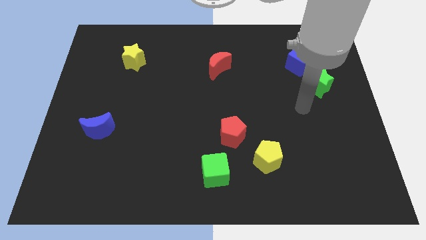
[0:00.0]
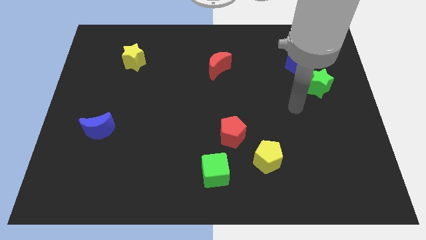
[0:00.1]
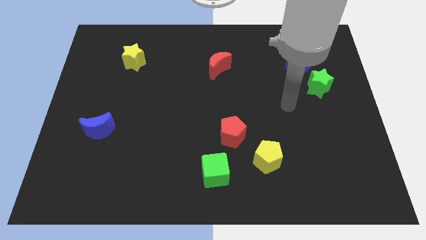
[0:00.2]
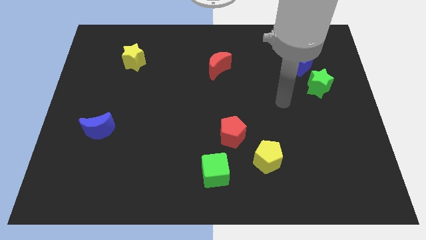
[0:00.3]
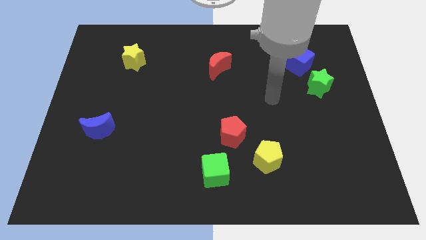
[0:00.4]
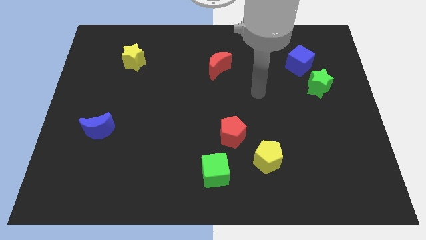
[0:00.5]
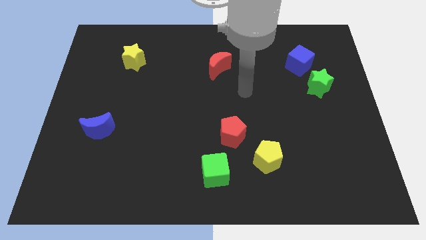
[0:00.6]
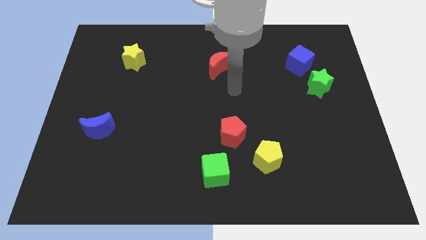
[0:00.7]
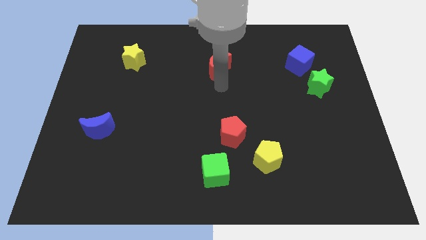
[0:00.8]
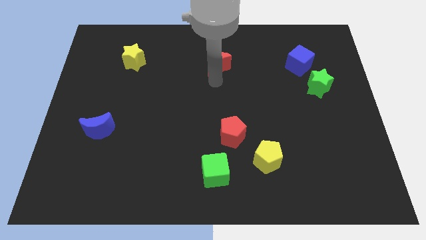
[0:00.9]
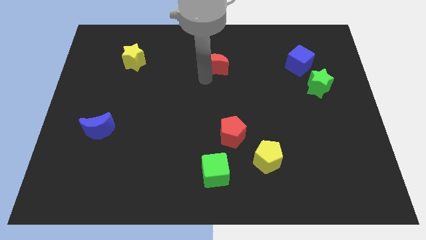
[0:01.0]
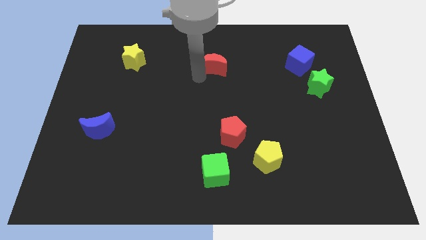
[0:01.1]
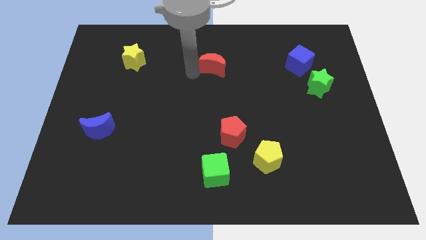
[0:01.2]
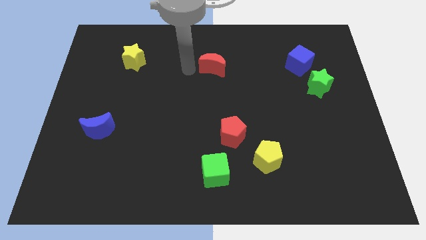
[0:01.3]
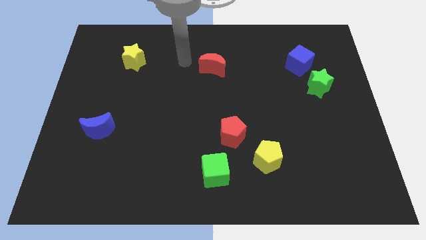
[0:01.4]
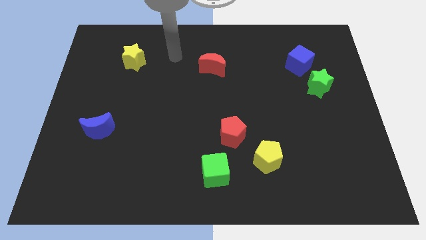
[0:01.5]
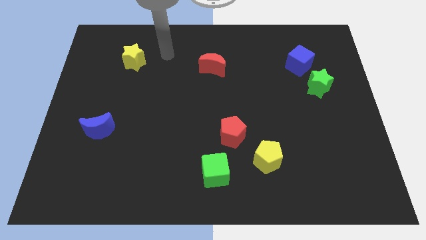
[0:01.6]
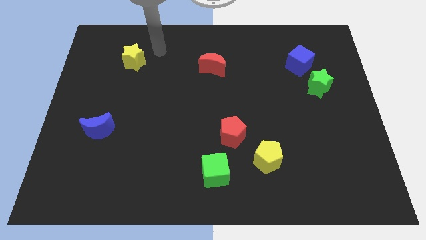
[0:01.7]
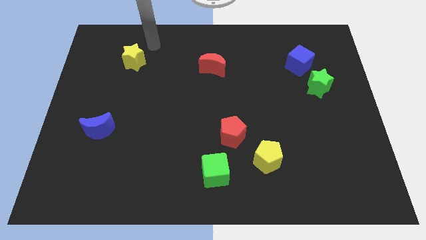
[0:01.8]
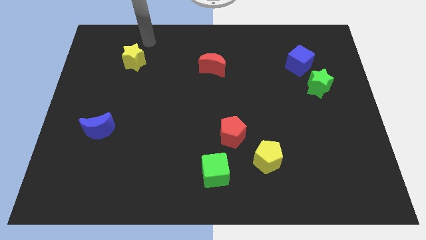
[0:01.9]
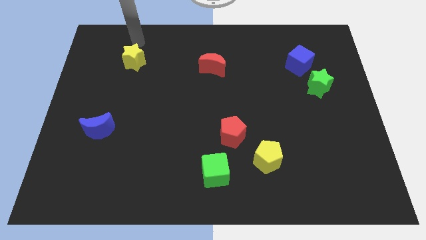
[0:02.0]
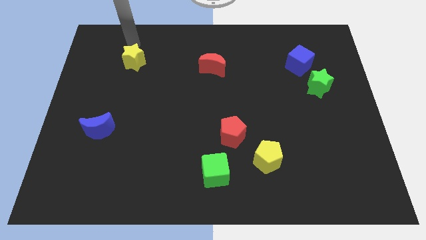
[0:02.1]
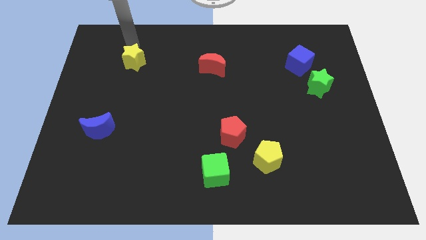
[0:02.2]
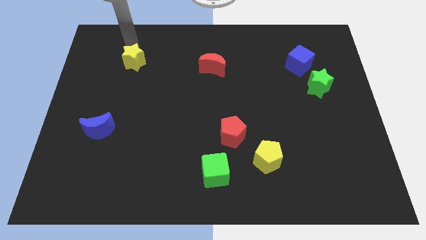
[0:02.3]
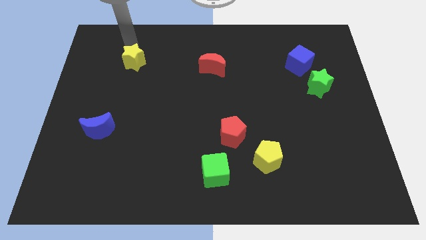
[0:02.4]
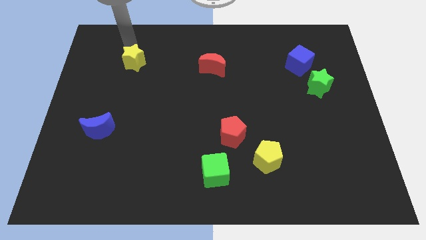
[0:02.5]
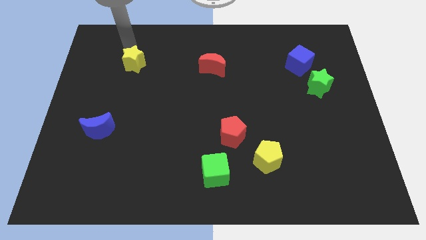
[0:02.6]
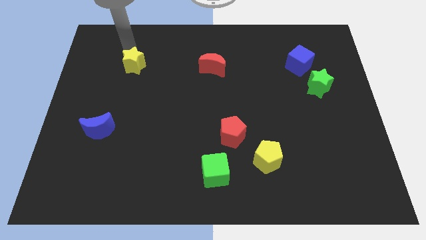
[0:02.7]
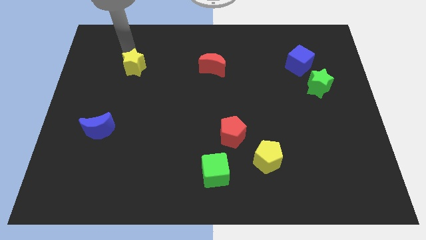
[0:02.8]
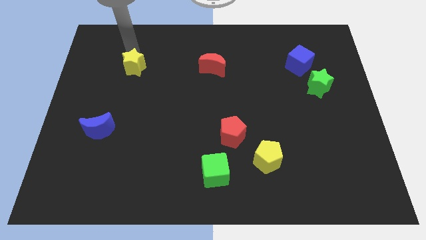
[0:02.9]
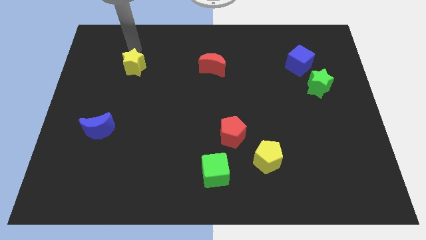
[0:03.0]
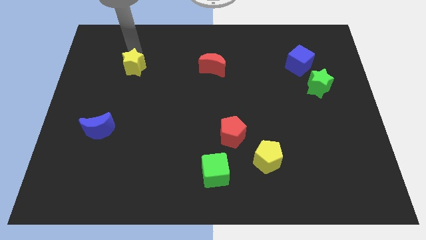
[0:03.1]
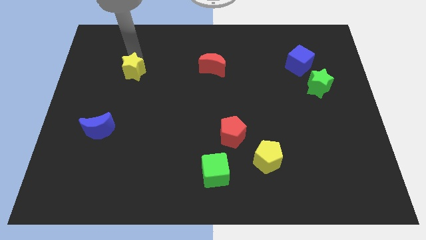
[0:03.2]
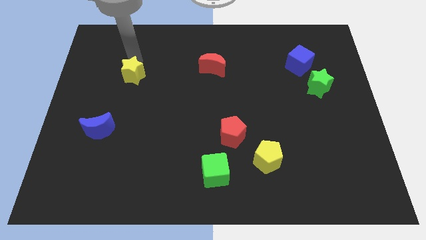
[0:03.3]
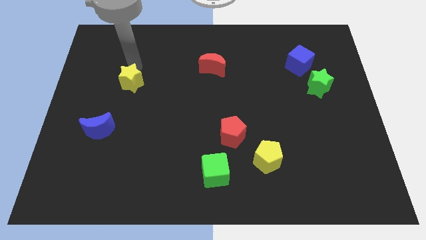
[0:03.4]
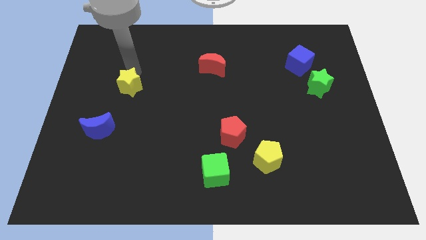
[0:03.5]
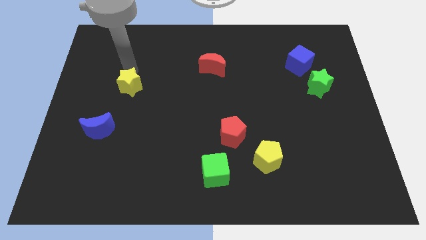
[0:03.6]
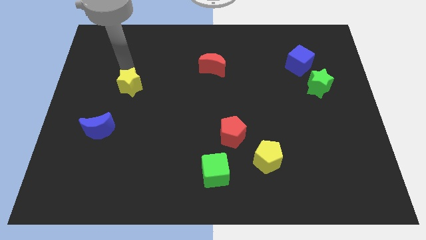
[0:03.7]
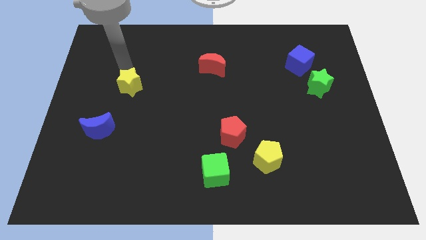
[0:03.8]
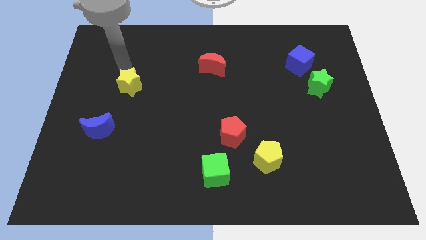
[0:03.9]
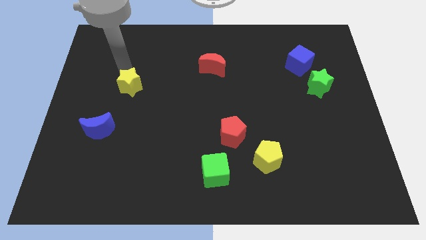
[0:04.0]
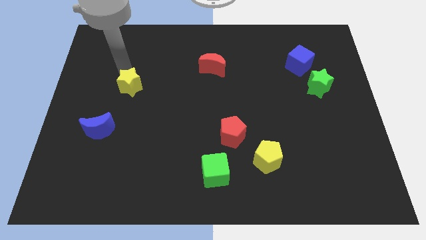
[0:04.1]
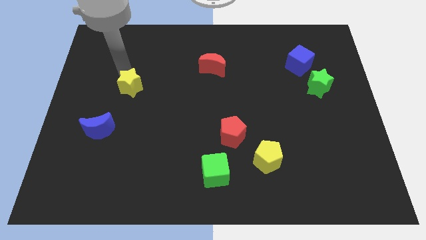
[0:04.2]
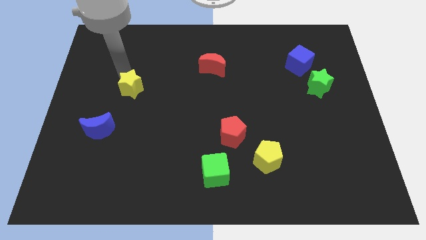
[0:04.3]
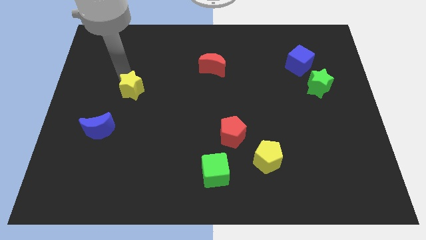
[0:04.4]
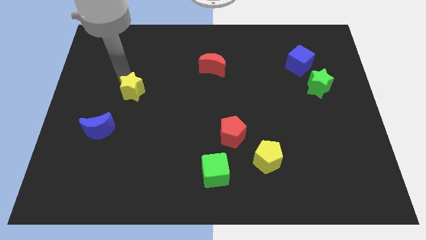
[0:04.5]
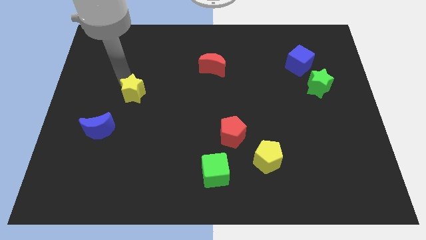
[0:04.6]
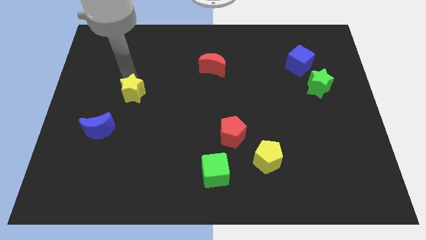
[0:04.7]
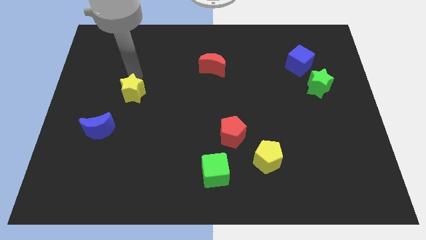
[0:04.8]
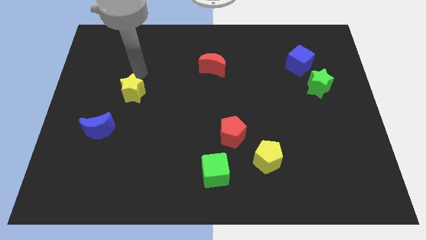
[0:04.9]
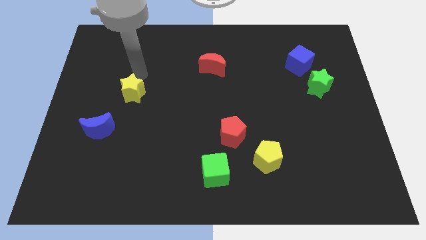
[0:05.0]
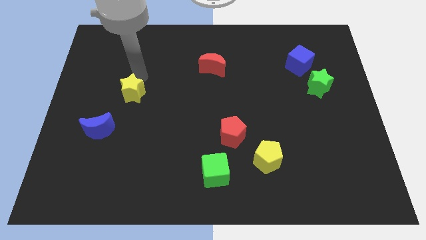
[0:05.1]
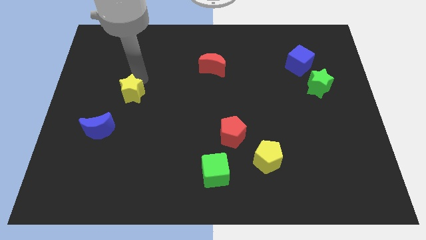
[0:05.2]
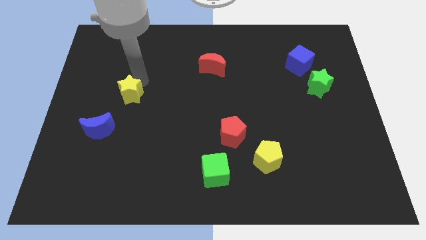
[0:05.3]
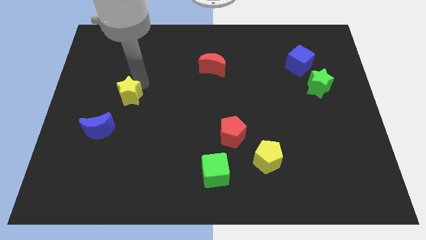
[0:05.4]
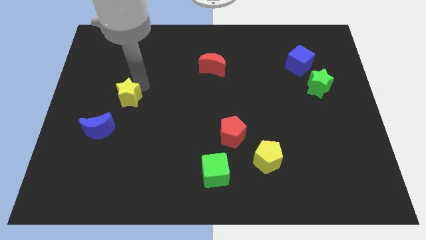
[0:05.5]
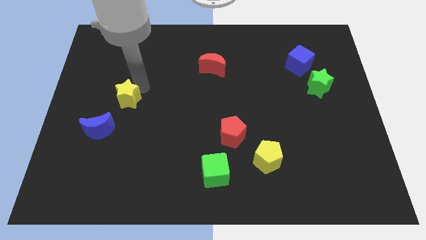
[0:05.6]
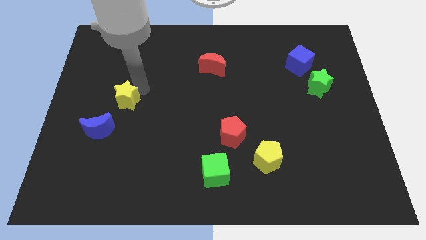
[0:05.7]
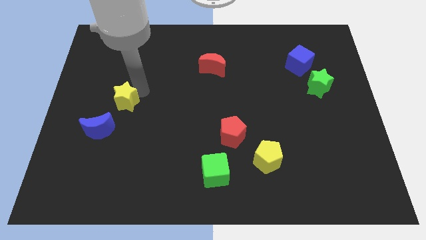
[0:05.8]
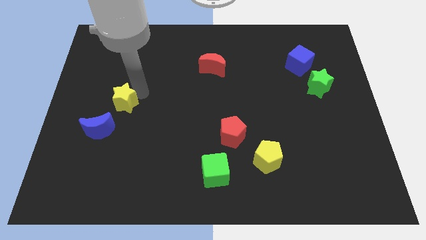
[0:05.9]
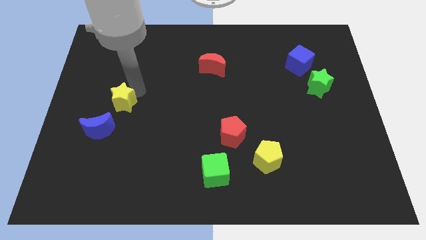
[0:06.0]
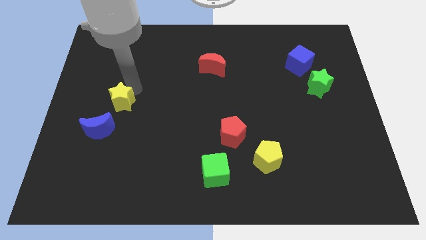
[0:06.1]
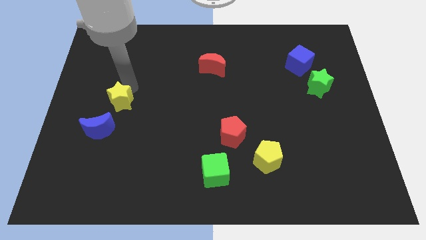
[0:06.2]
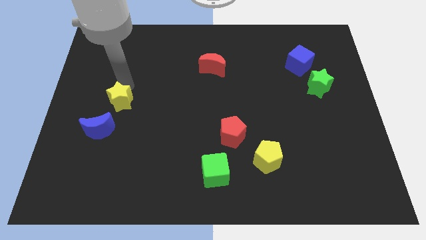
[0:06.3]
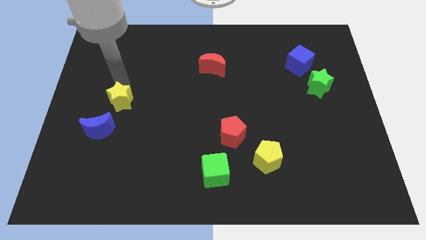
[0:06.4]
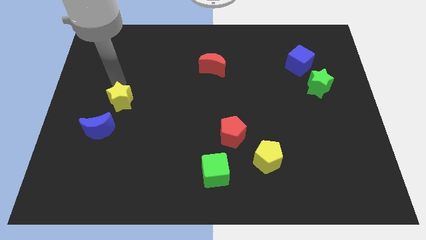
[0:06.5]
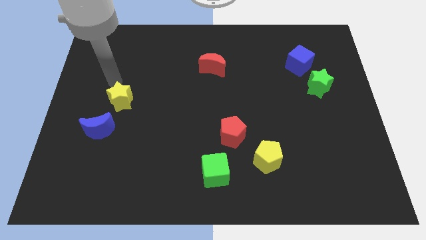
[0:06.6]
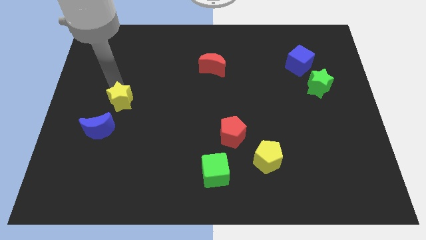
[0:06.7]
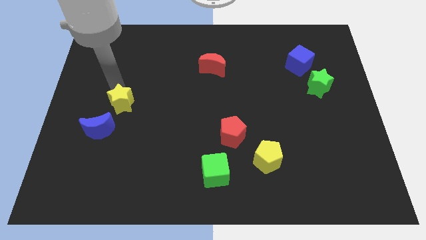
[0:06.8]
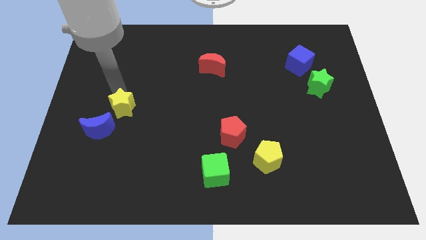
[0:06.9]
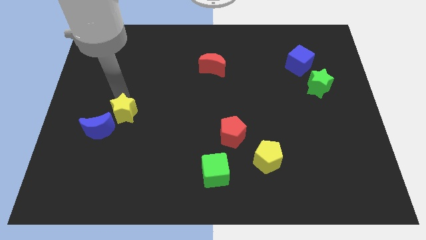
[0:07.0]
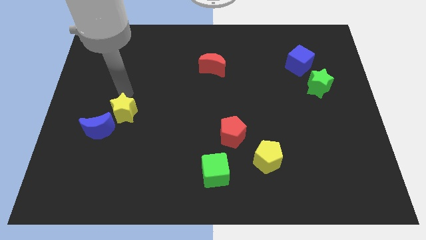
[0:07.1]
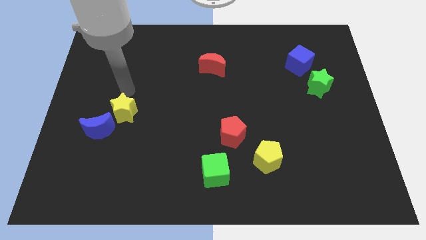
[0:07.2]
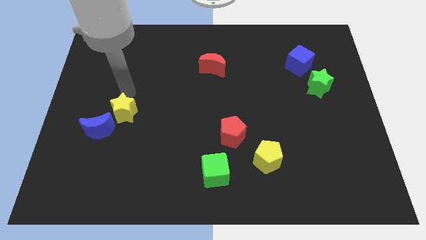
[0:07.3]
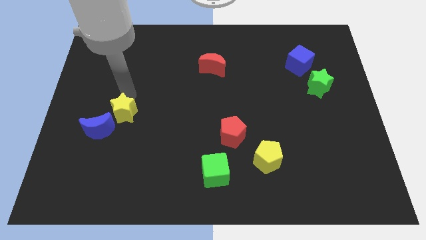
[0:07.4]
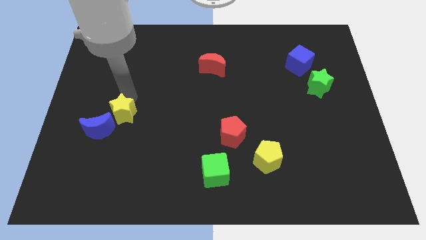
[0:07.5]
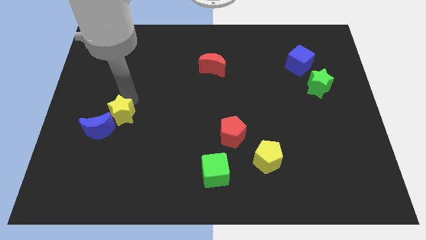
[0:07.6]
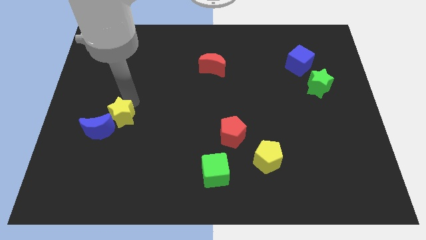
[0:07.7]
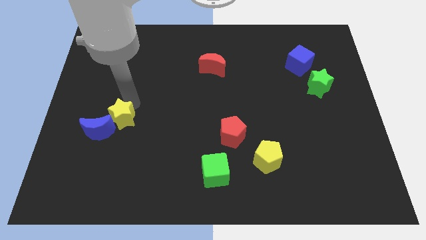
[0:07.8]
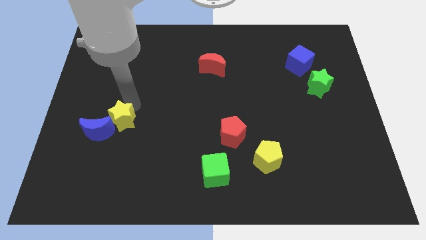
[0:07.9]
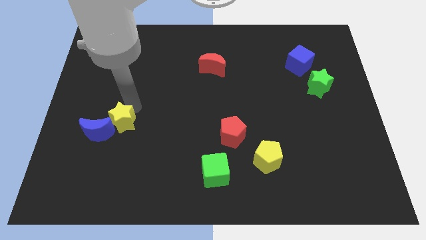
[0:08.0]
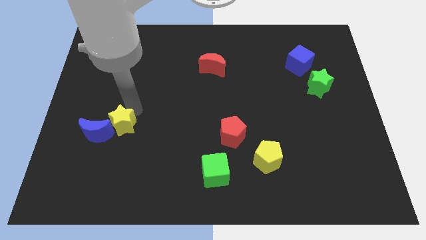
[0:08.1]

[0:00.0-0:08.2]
slide the yellow star down
